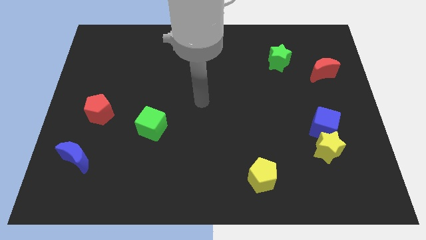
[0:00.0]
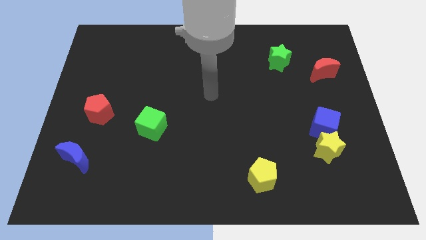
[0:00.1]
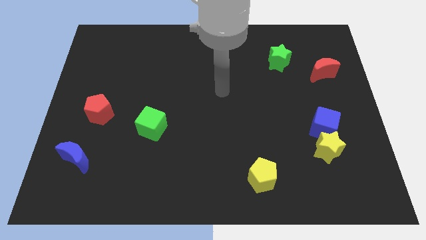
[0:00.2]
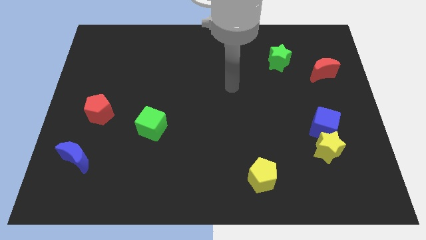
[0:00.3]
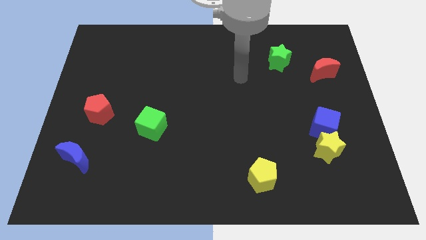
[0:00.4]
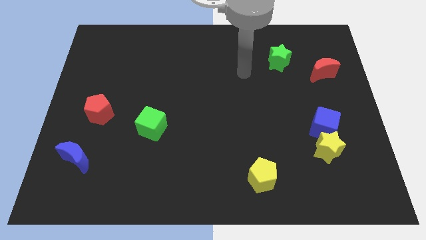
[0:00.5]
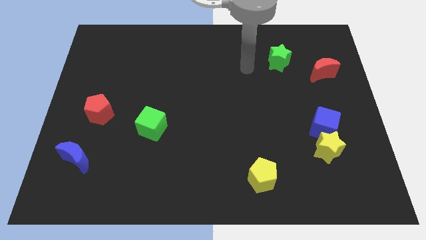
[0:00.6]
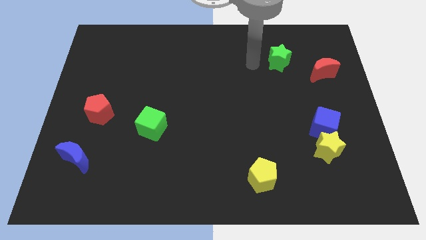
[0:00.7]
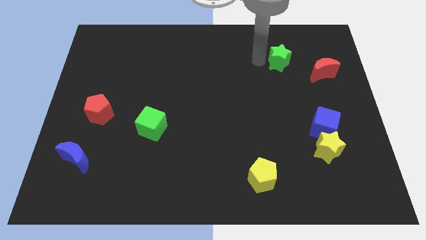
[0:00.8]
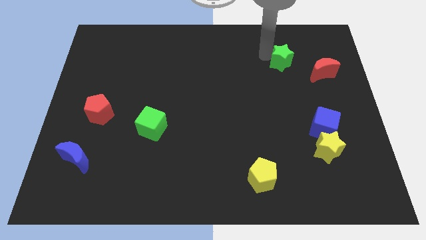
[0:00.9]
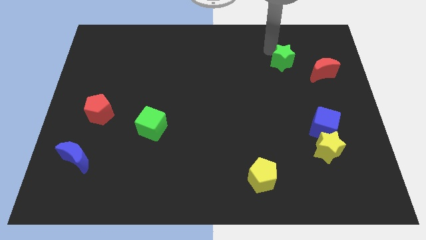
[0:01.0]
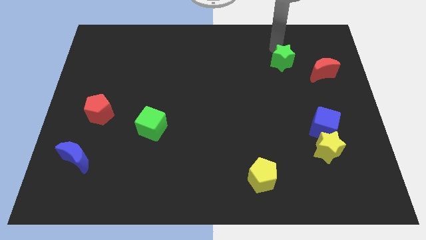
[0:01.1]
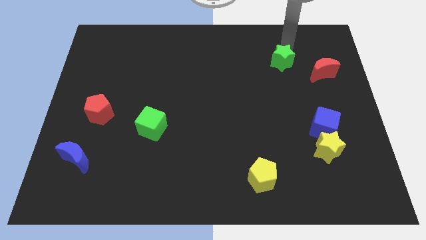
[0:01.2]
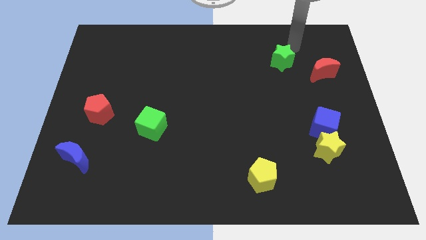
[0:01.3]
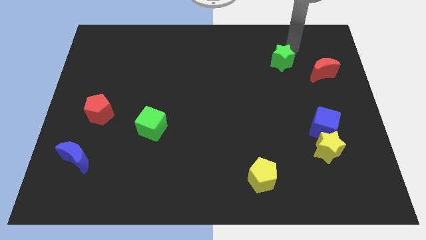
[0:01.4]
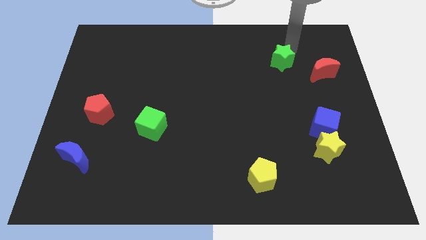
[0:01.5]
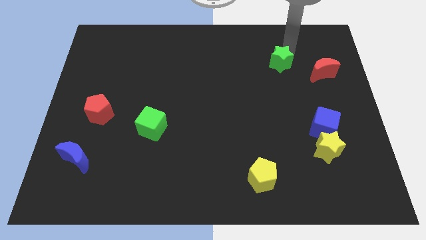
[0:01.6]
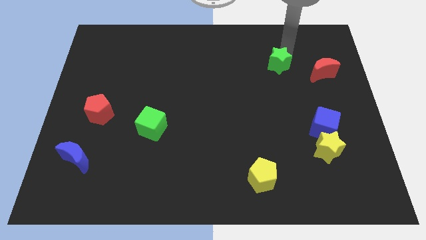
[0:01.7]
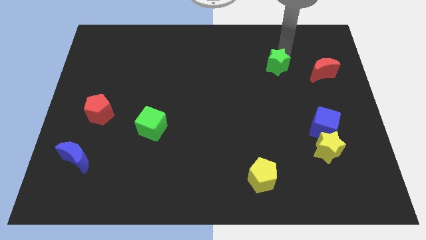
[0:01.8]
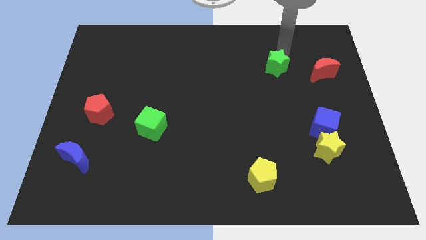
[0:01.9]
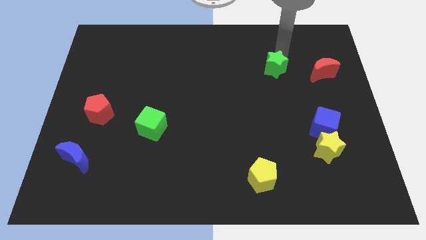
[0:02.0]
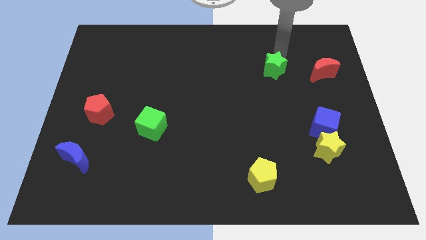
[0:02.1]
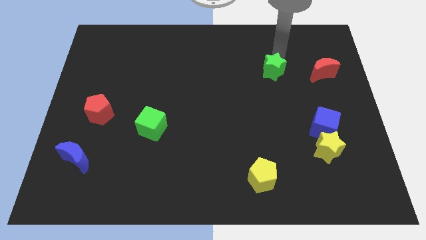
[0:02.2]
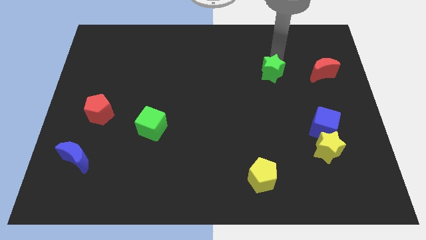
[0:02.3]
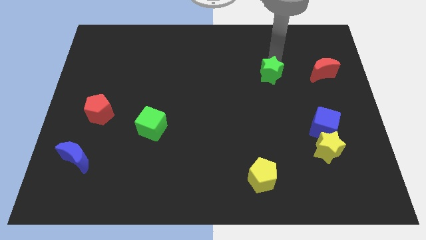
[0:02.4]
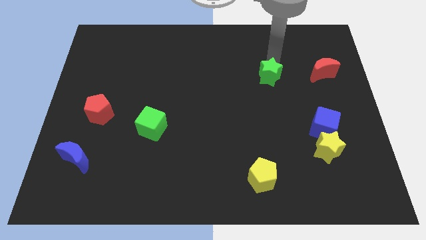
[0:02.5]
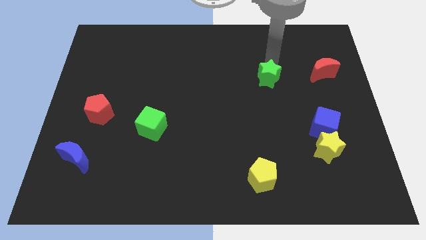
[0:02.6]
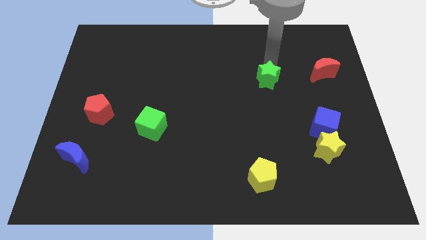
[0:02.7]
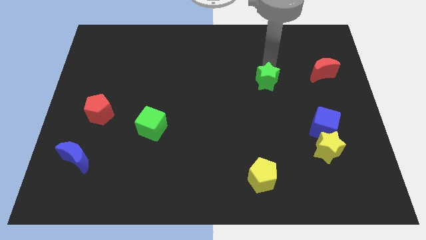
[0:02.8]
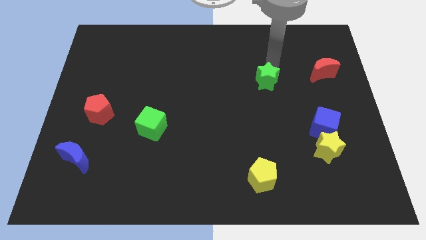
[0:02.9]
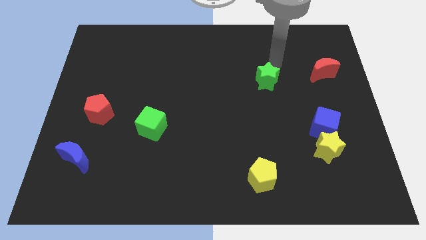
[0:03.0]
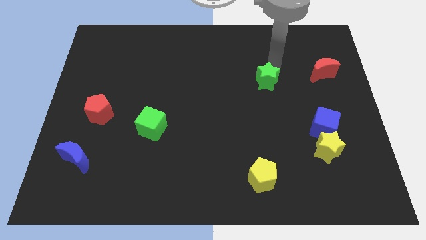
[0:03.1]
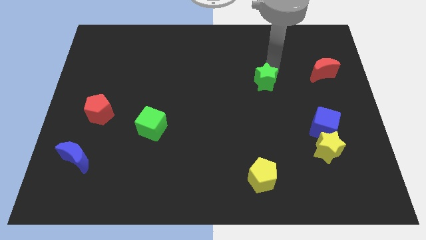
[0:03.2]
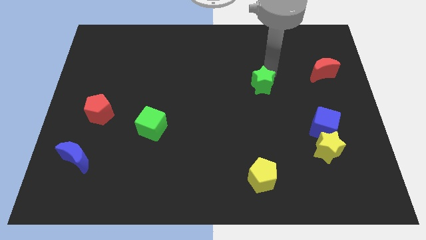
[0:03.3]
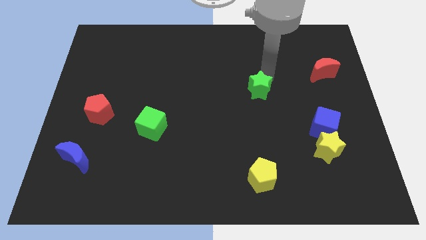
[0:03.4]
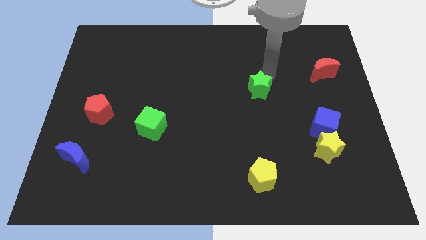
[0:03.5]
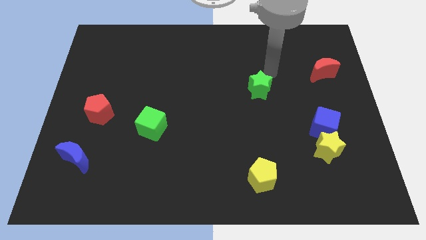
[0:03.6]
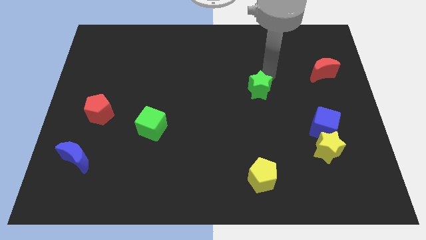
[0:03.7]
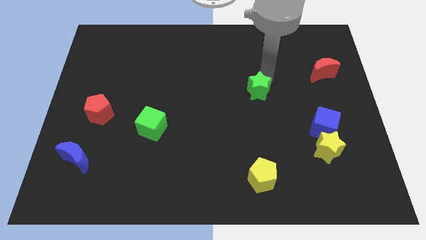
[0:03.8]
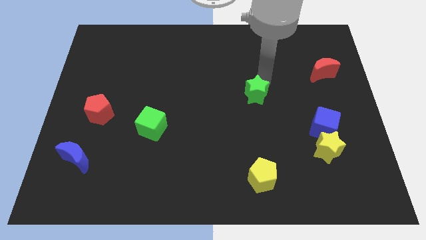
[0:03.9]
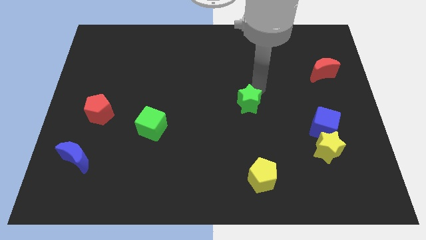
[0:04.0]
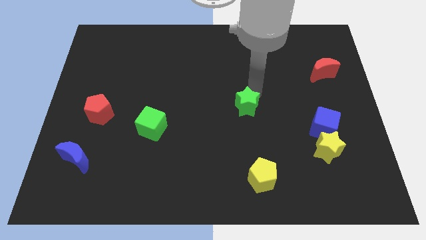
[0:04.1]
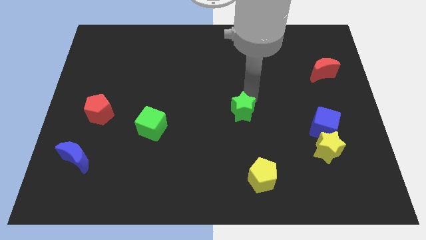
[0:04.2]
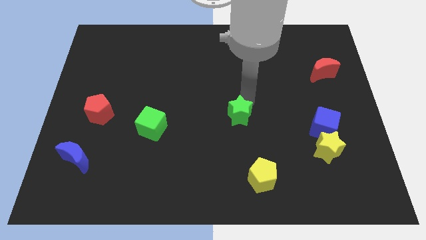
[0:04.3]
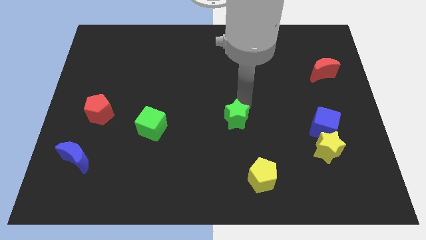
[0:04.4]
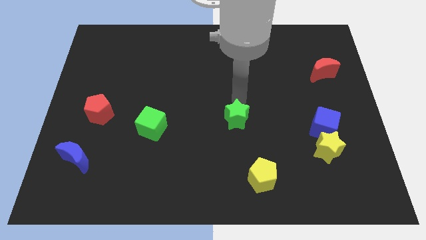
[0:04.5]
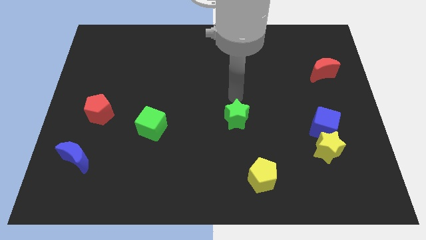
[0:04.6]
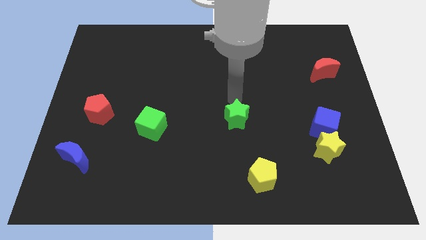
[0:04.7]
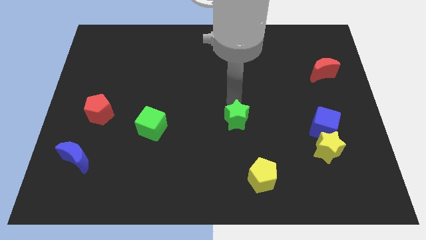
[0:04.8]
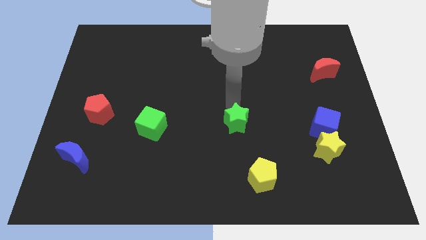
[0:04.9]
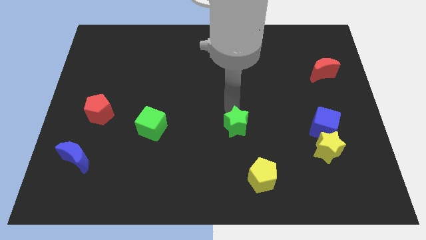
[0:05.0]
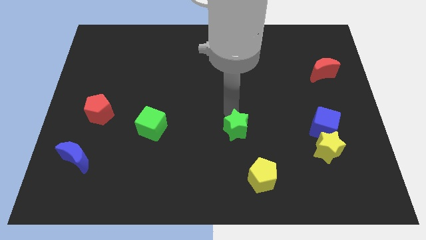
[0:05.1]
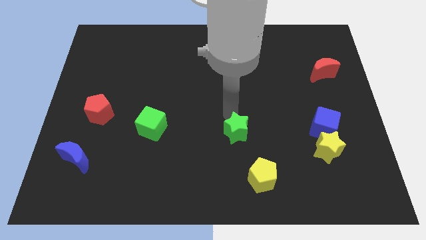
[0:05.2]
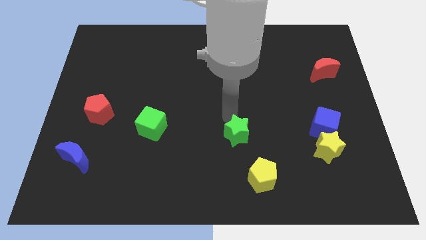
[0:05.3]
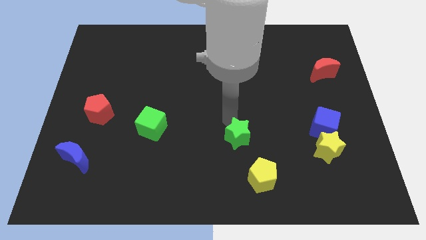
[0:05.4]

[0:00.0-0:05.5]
push the green star to the top left side of the yellow pentagon

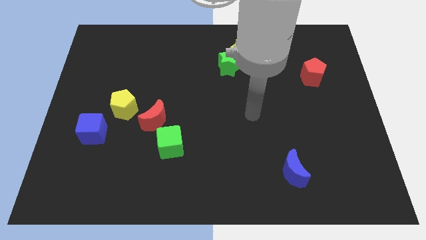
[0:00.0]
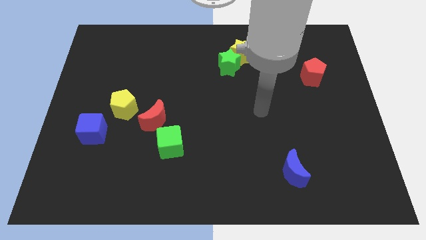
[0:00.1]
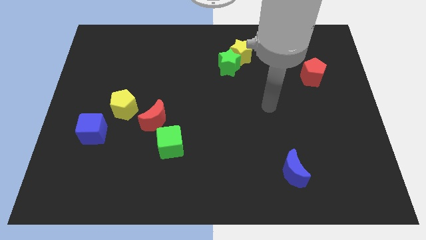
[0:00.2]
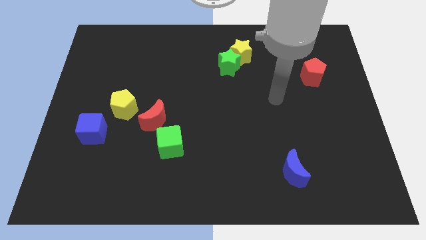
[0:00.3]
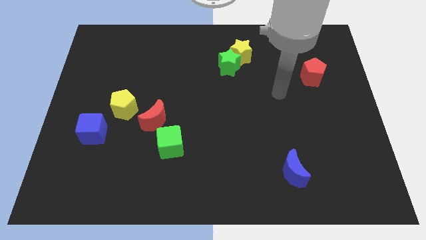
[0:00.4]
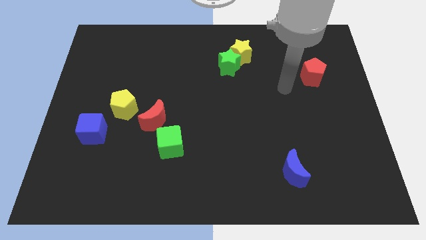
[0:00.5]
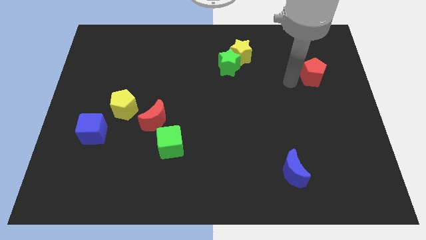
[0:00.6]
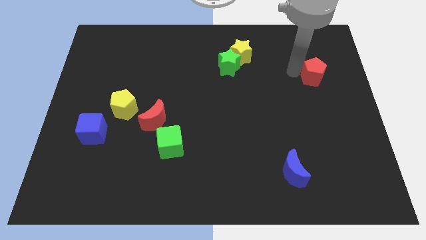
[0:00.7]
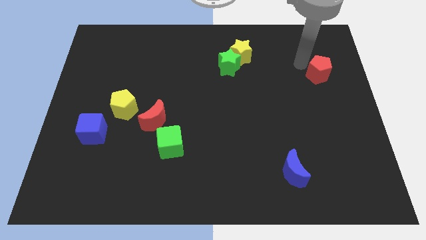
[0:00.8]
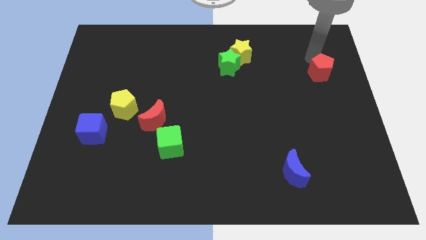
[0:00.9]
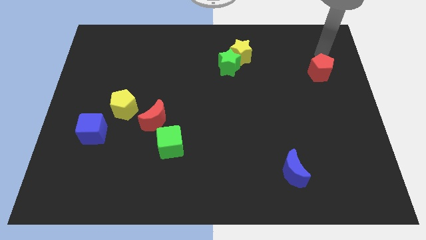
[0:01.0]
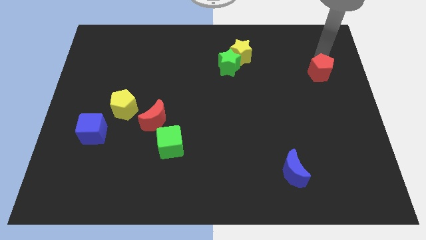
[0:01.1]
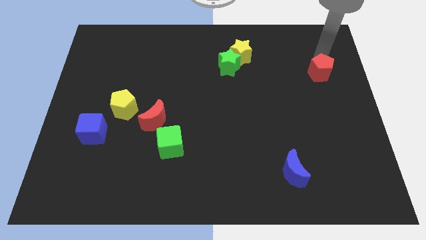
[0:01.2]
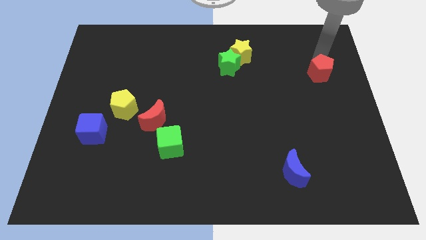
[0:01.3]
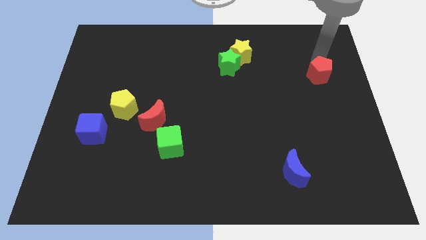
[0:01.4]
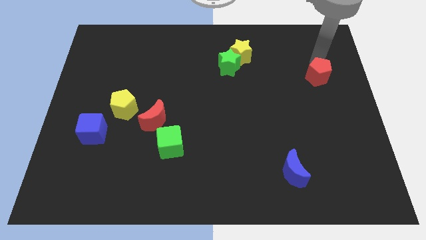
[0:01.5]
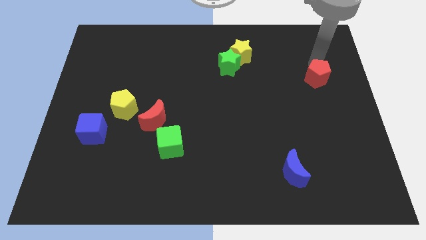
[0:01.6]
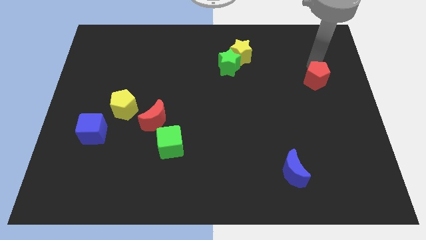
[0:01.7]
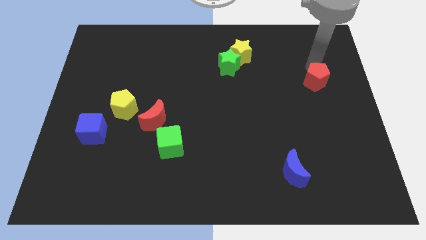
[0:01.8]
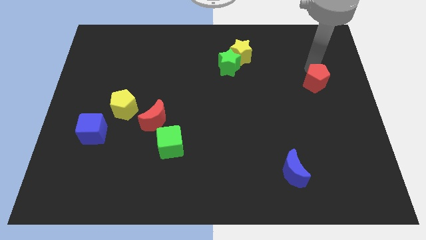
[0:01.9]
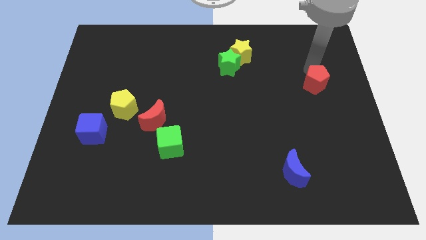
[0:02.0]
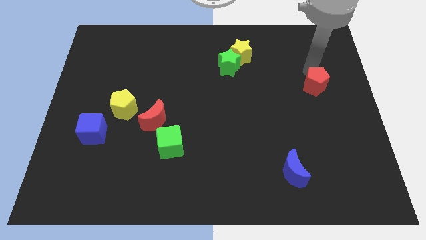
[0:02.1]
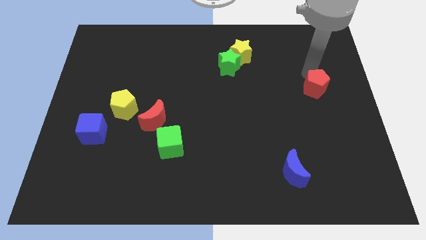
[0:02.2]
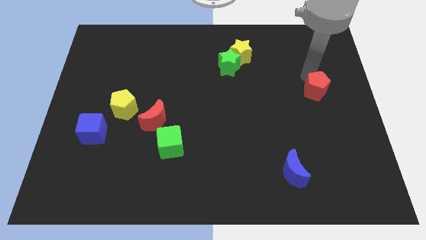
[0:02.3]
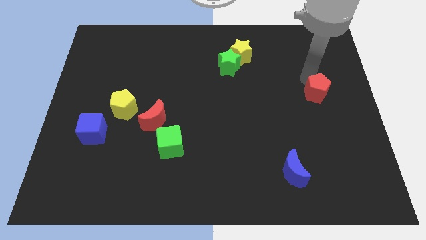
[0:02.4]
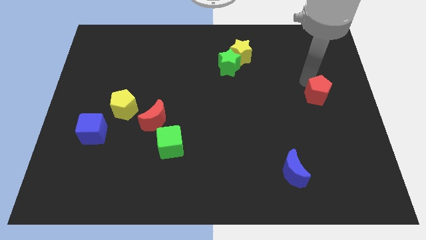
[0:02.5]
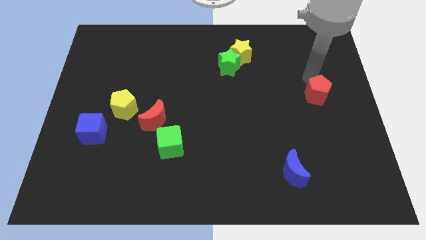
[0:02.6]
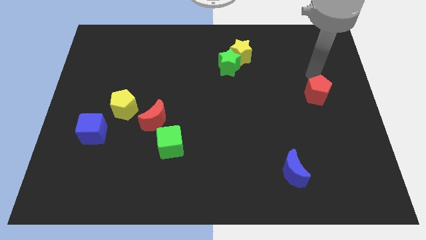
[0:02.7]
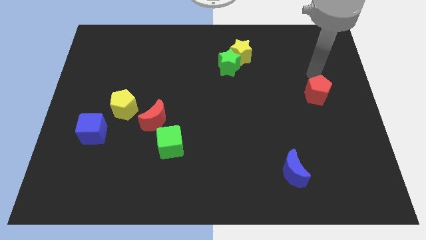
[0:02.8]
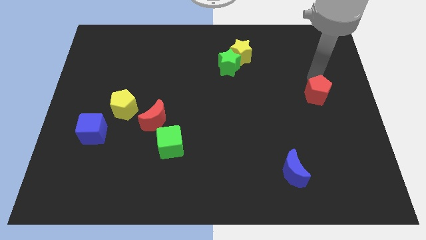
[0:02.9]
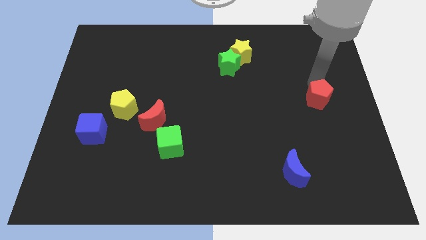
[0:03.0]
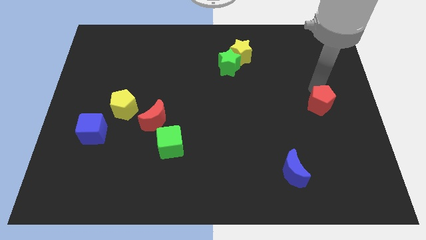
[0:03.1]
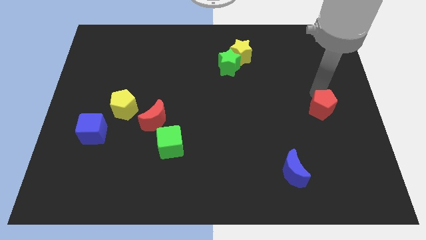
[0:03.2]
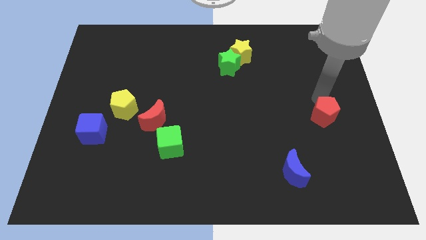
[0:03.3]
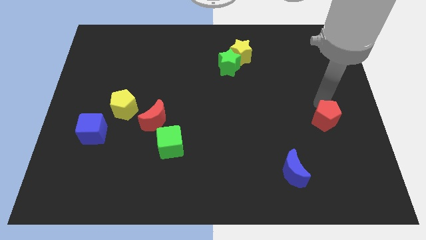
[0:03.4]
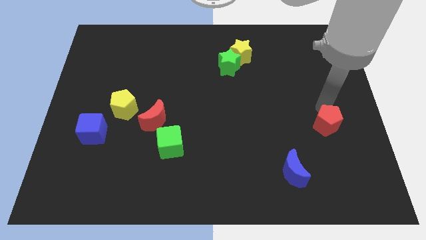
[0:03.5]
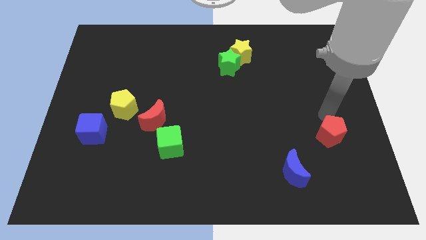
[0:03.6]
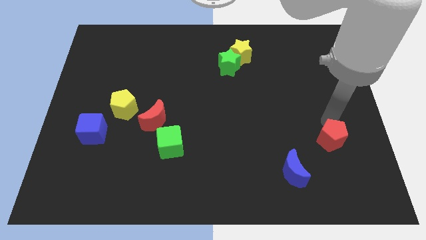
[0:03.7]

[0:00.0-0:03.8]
put the red pentagon diagonally up and to the right of the blue moon
